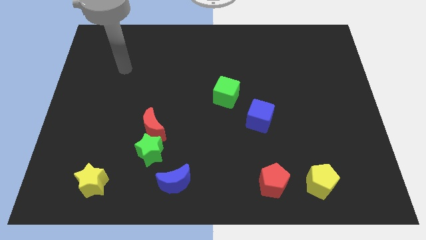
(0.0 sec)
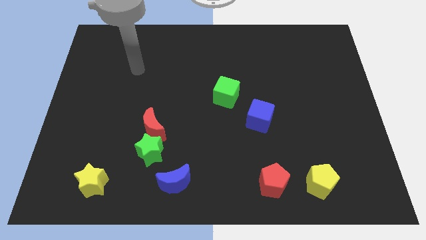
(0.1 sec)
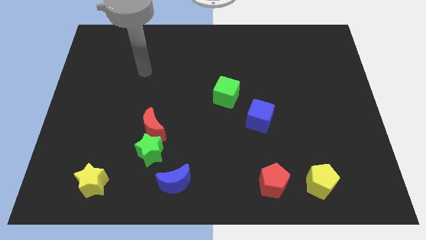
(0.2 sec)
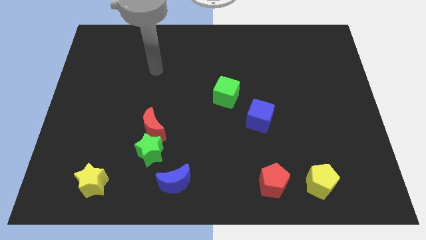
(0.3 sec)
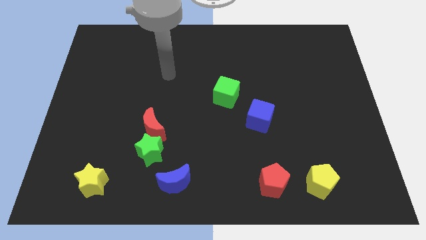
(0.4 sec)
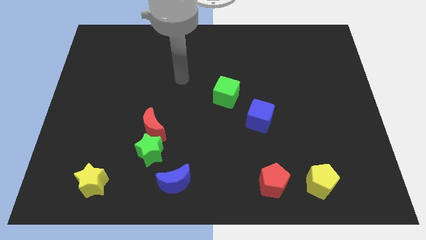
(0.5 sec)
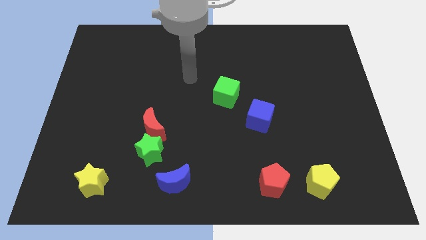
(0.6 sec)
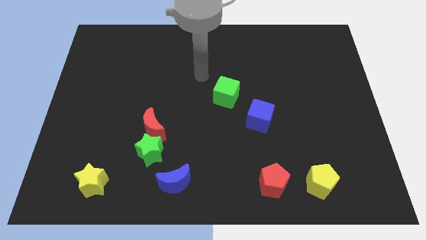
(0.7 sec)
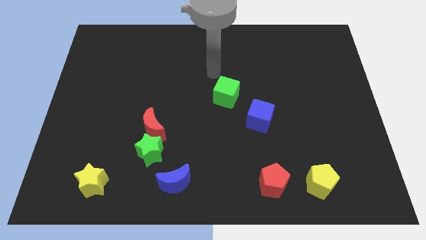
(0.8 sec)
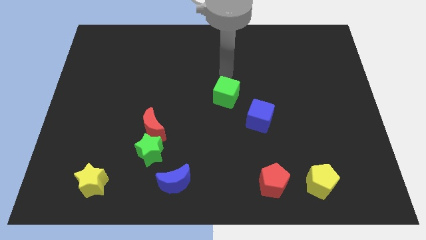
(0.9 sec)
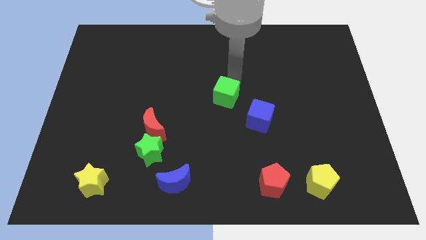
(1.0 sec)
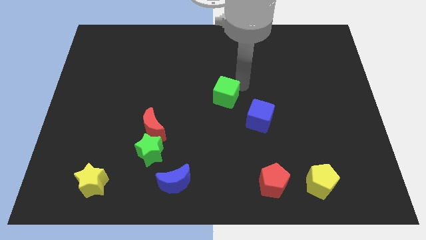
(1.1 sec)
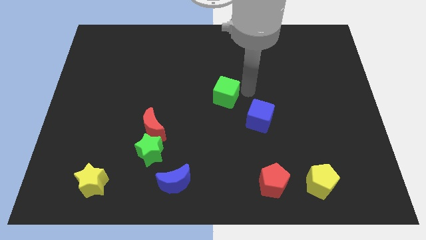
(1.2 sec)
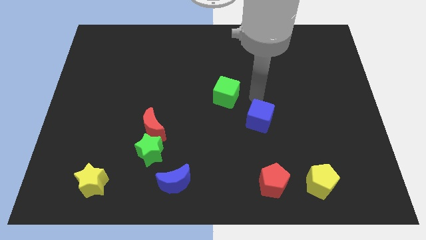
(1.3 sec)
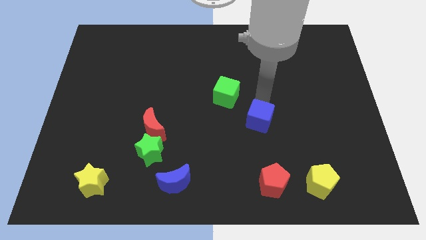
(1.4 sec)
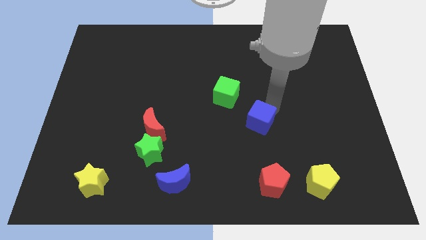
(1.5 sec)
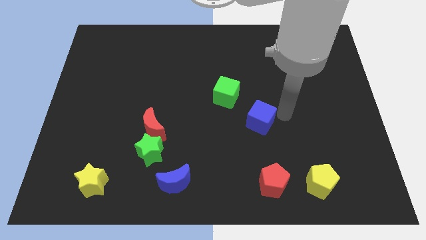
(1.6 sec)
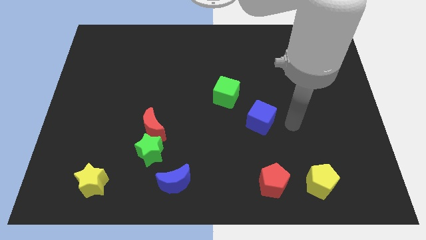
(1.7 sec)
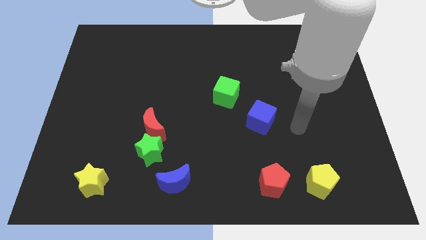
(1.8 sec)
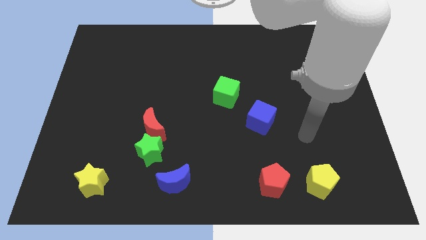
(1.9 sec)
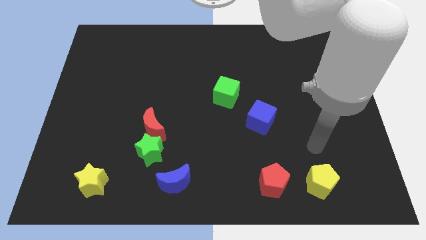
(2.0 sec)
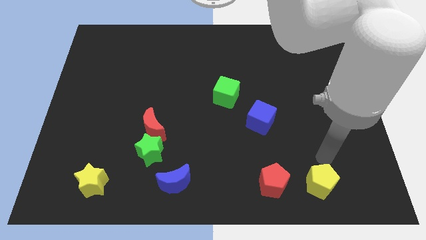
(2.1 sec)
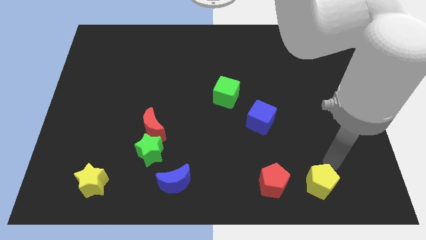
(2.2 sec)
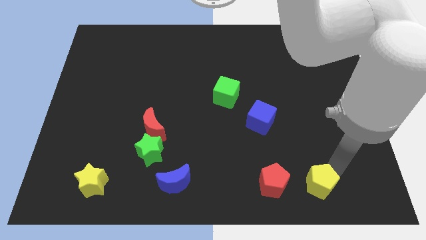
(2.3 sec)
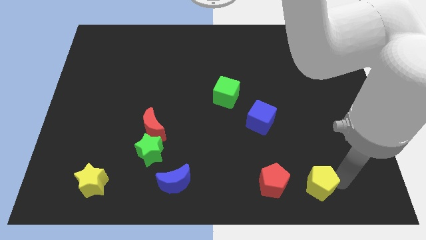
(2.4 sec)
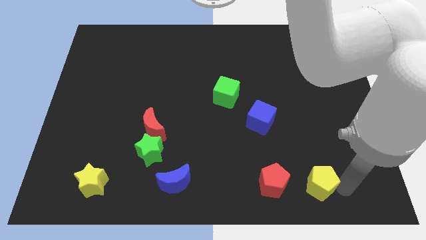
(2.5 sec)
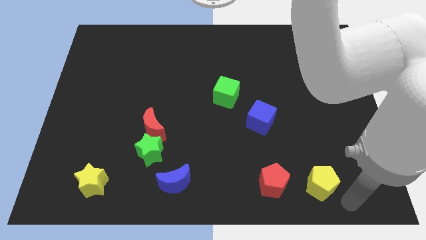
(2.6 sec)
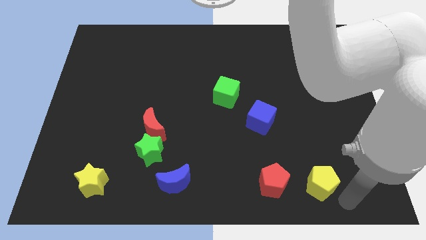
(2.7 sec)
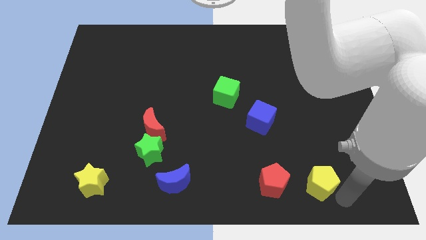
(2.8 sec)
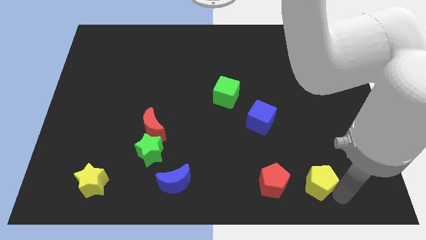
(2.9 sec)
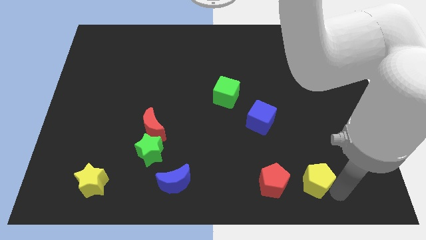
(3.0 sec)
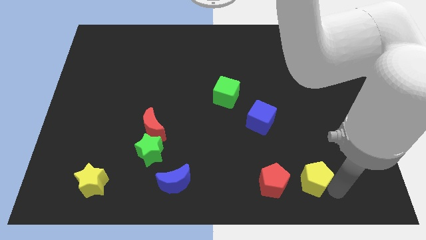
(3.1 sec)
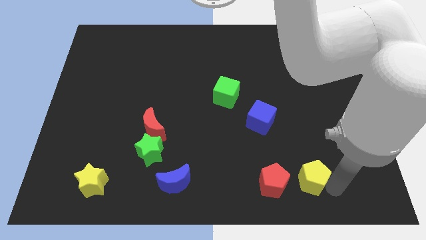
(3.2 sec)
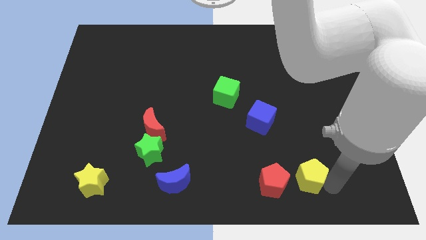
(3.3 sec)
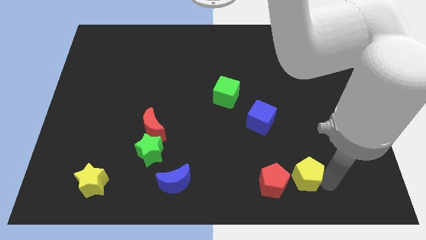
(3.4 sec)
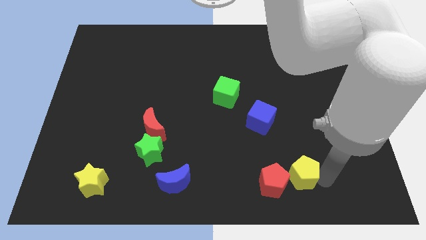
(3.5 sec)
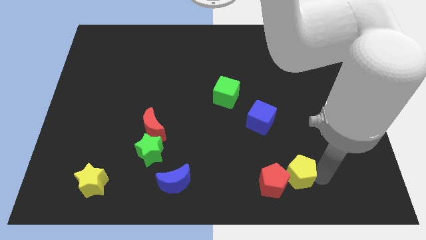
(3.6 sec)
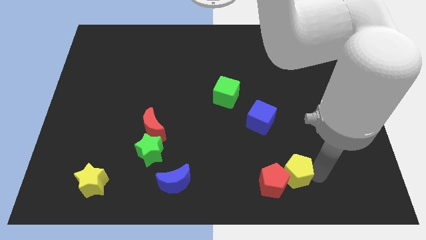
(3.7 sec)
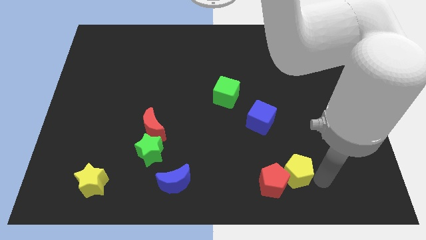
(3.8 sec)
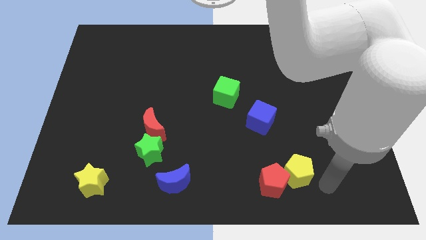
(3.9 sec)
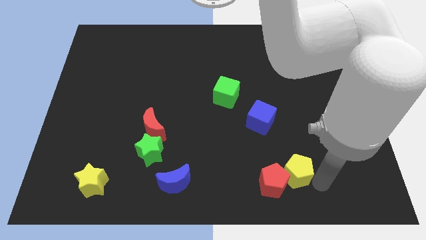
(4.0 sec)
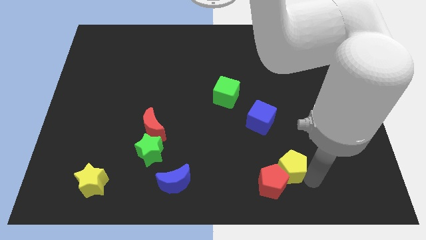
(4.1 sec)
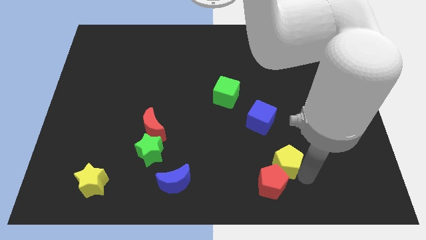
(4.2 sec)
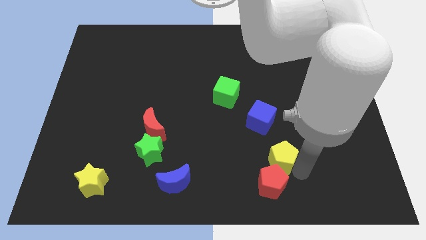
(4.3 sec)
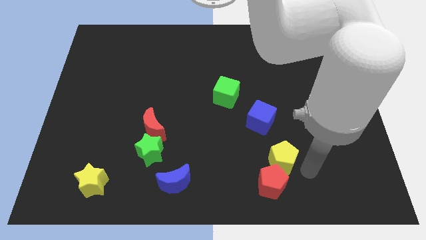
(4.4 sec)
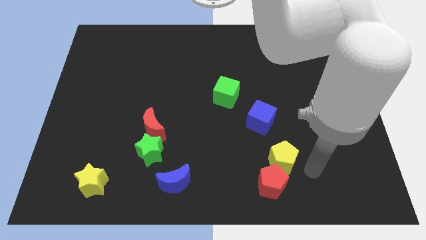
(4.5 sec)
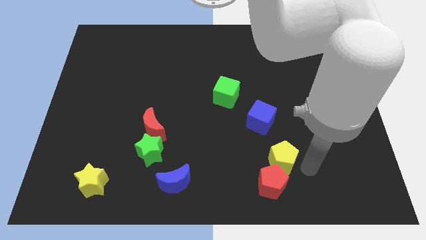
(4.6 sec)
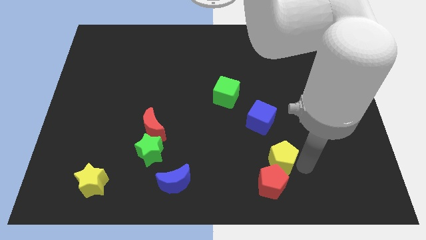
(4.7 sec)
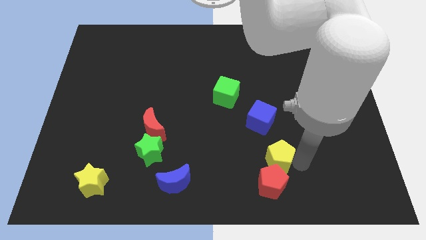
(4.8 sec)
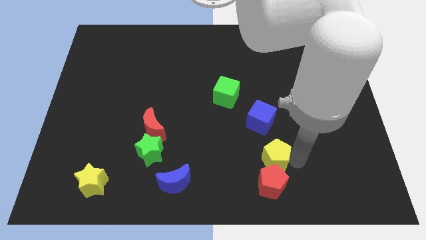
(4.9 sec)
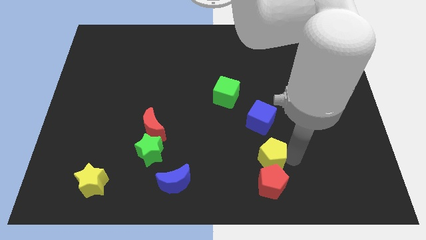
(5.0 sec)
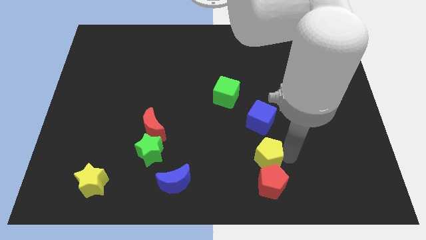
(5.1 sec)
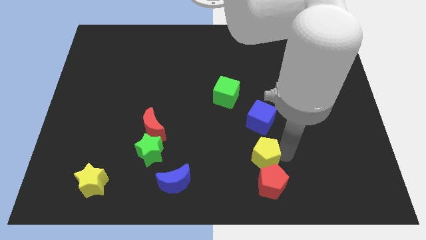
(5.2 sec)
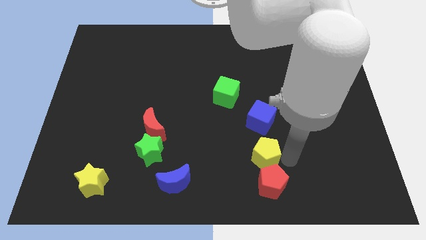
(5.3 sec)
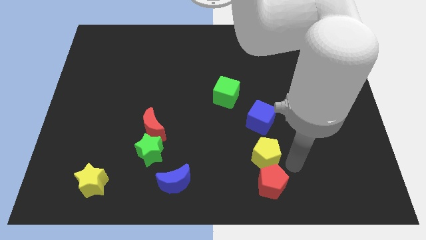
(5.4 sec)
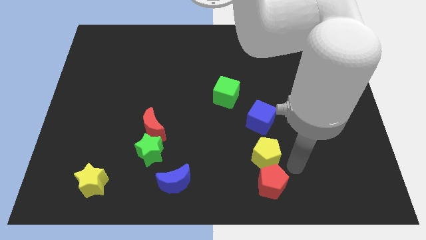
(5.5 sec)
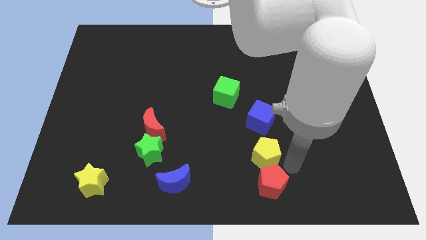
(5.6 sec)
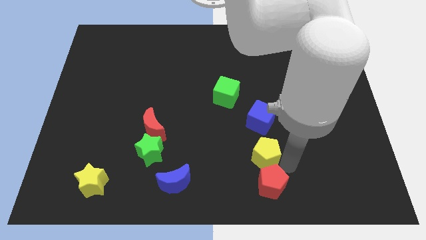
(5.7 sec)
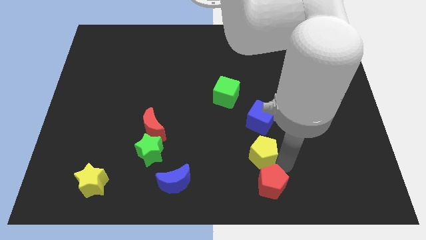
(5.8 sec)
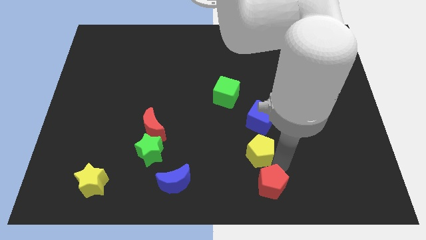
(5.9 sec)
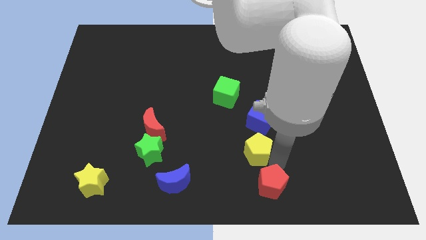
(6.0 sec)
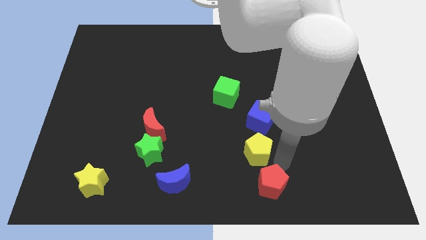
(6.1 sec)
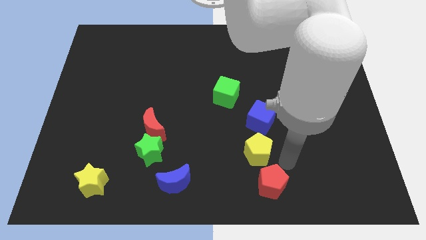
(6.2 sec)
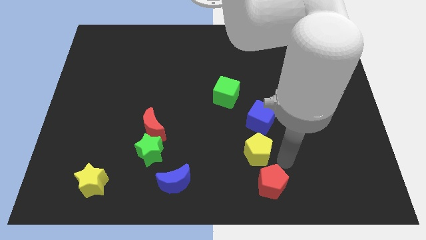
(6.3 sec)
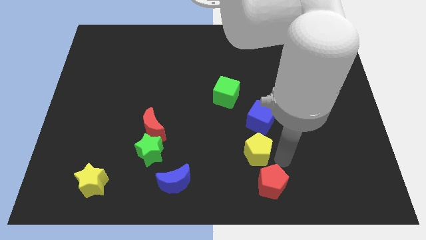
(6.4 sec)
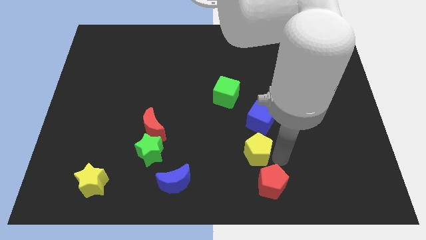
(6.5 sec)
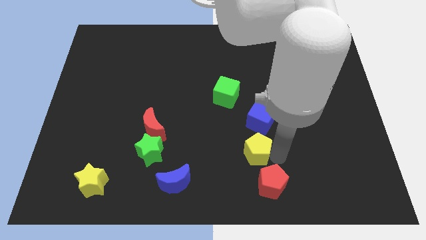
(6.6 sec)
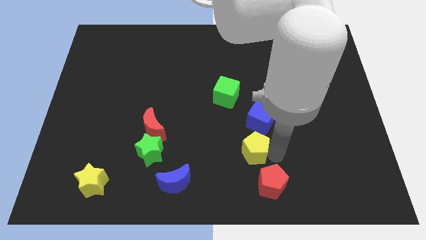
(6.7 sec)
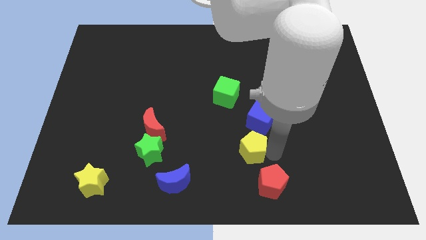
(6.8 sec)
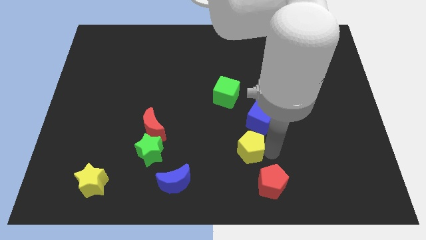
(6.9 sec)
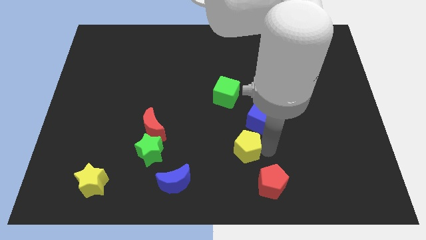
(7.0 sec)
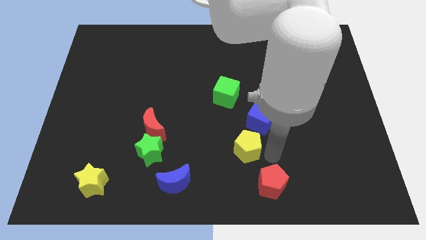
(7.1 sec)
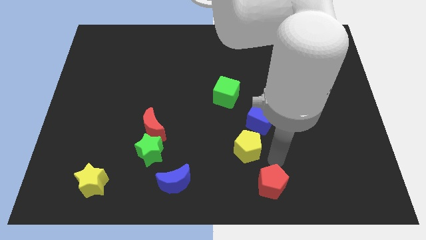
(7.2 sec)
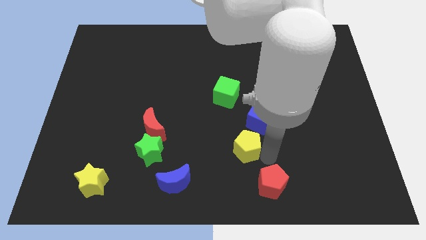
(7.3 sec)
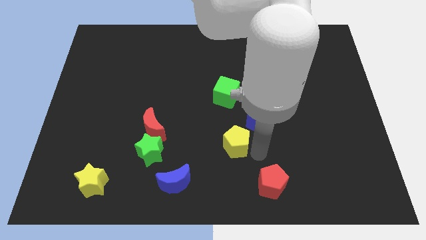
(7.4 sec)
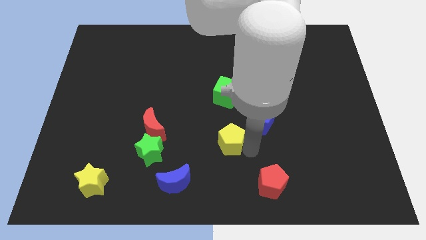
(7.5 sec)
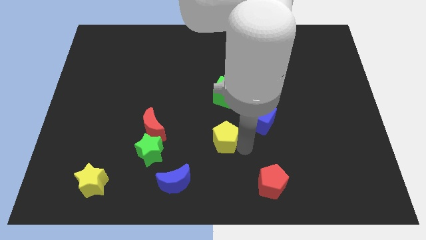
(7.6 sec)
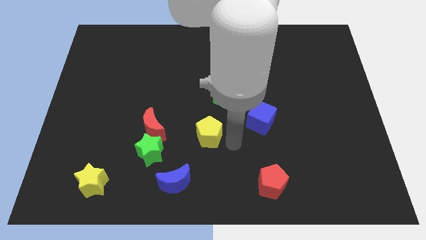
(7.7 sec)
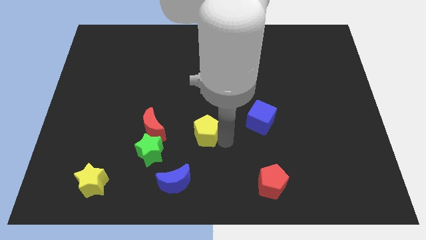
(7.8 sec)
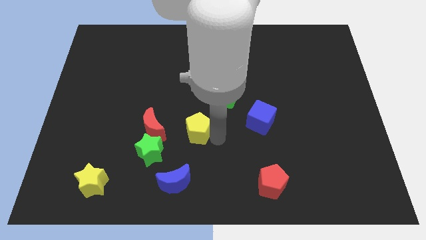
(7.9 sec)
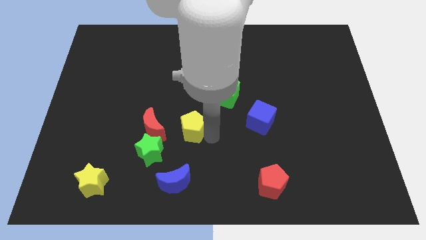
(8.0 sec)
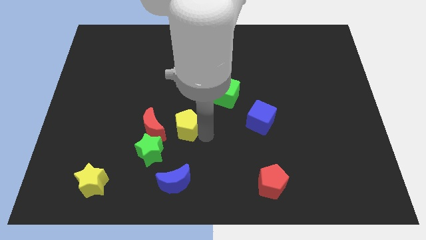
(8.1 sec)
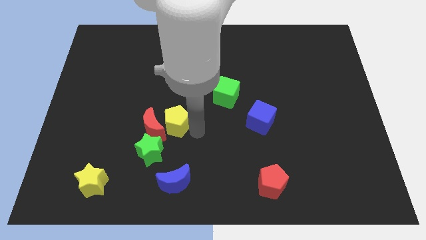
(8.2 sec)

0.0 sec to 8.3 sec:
push the yellow pentagon to the top side of the green star
